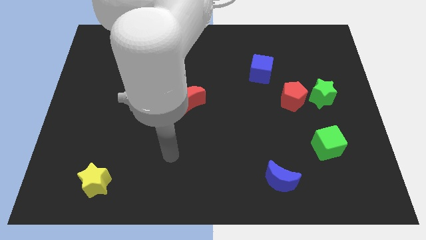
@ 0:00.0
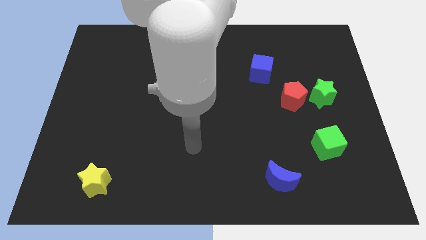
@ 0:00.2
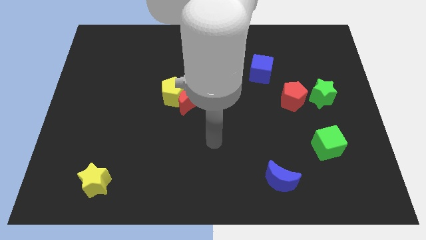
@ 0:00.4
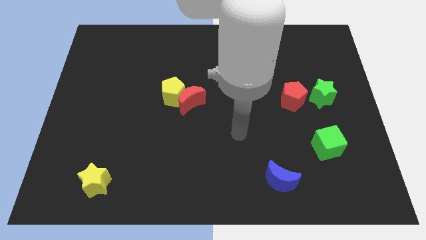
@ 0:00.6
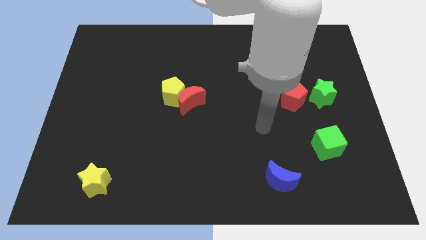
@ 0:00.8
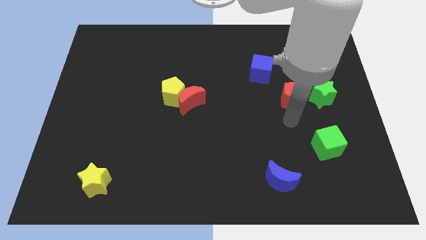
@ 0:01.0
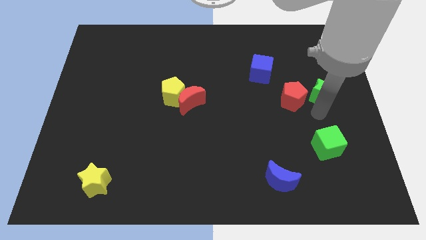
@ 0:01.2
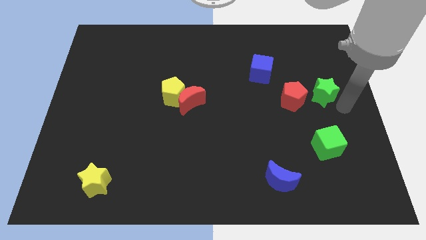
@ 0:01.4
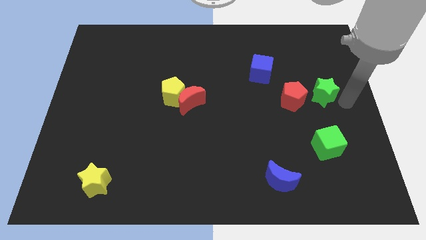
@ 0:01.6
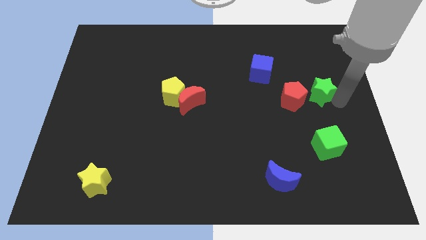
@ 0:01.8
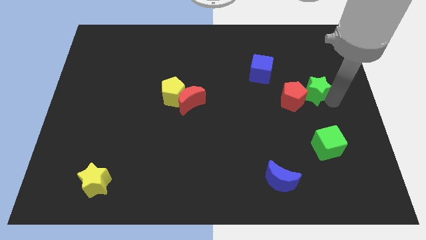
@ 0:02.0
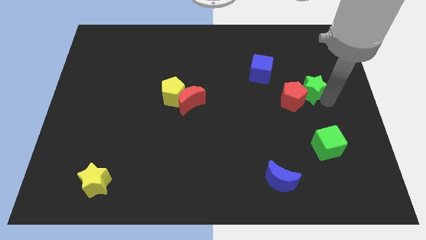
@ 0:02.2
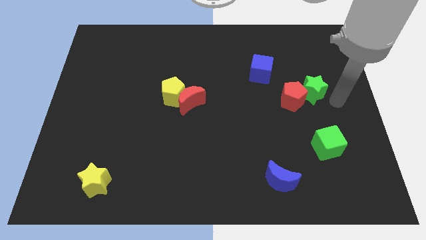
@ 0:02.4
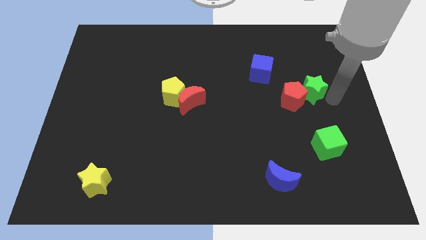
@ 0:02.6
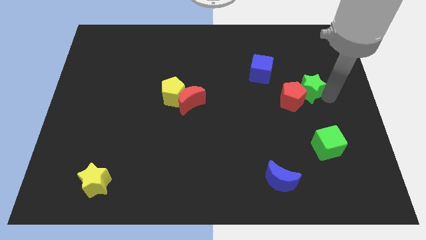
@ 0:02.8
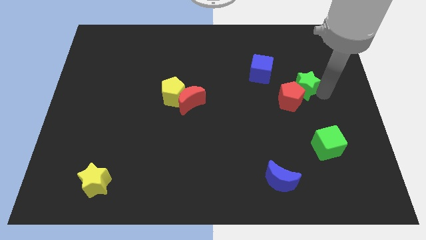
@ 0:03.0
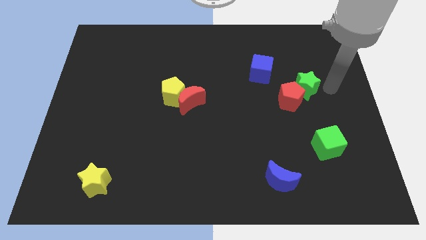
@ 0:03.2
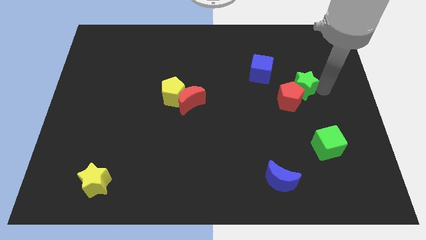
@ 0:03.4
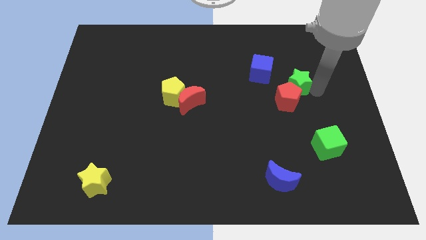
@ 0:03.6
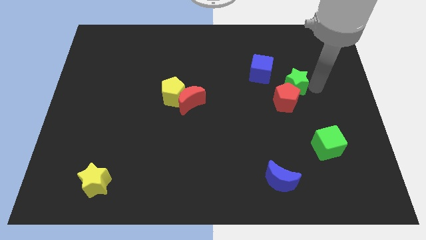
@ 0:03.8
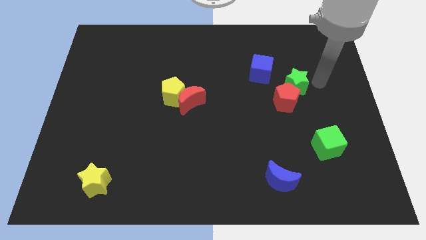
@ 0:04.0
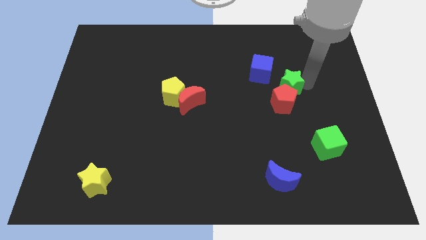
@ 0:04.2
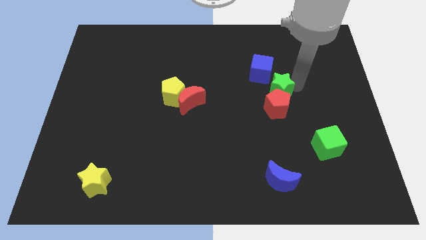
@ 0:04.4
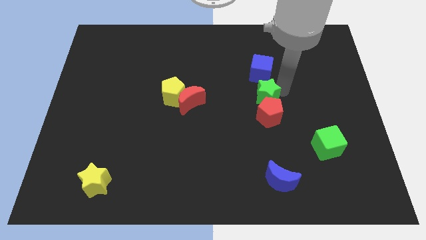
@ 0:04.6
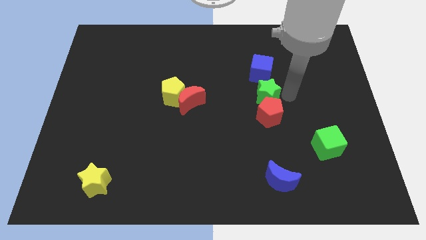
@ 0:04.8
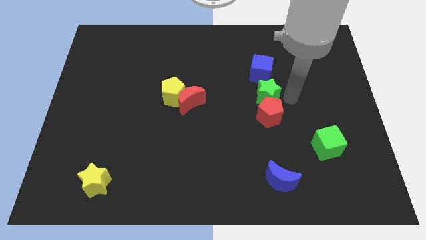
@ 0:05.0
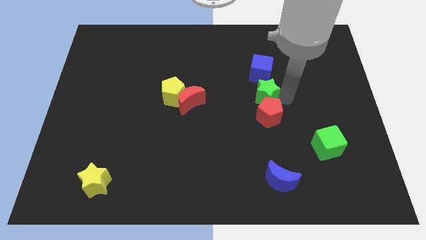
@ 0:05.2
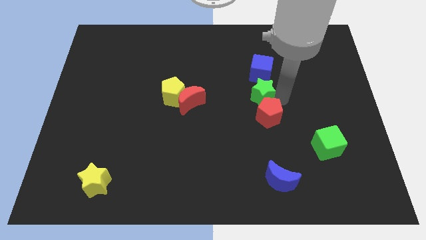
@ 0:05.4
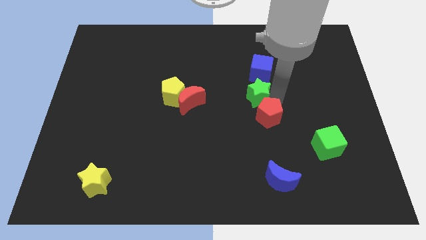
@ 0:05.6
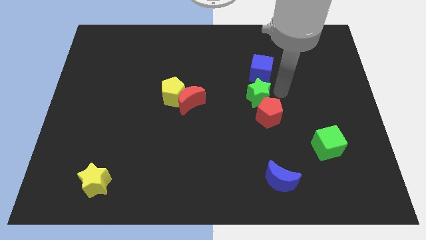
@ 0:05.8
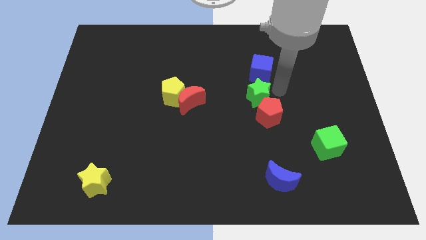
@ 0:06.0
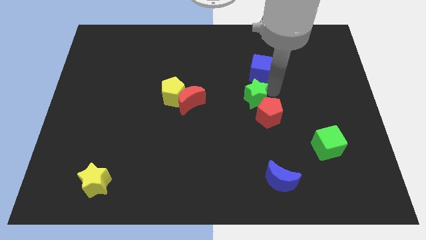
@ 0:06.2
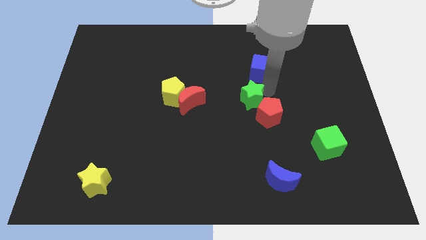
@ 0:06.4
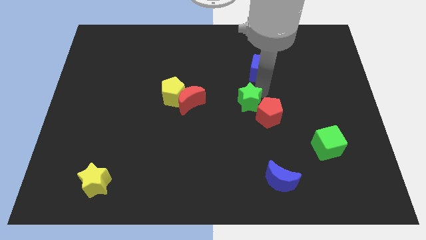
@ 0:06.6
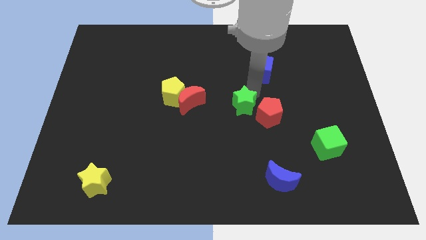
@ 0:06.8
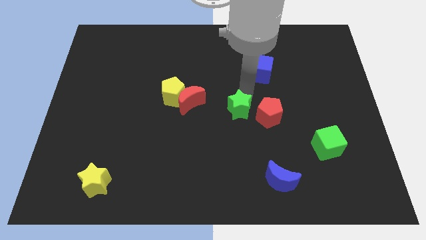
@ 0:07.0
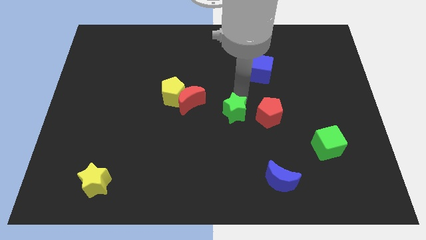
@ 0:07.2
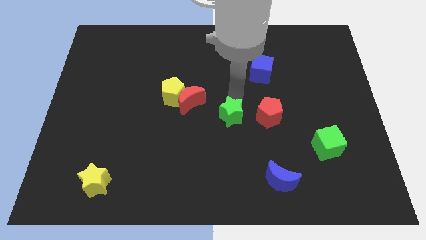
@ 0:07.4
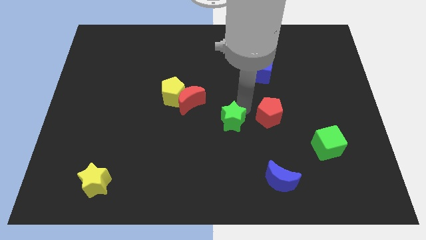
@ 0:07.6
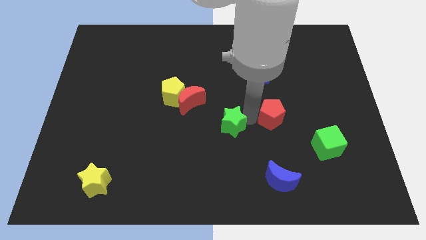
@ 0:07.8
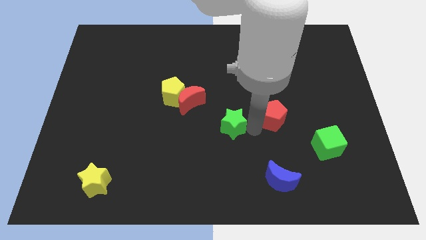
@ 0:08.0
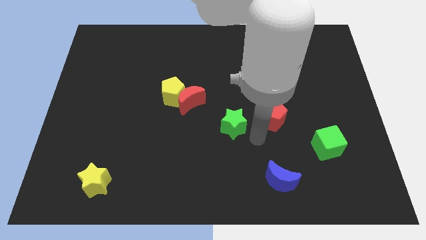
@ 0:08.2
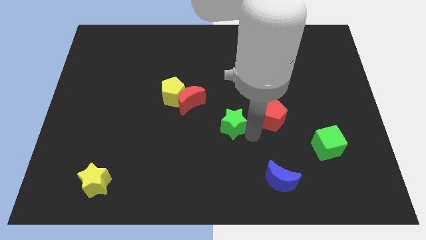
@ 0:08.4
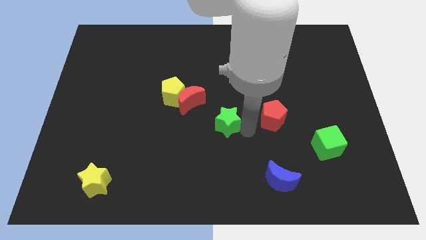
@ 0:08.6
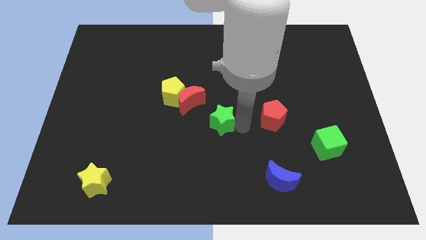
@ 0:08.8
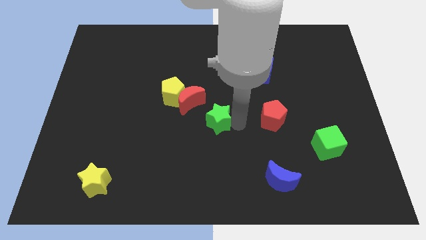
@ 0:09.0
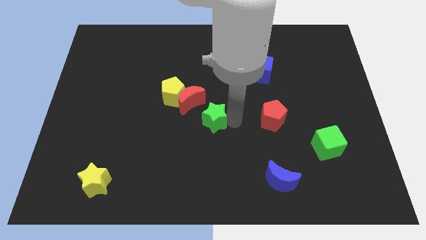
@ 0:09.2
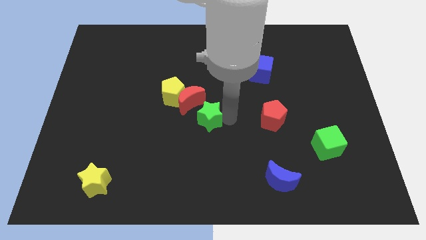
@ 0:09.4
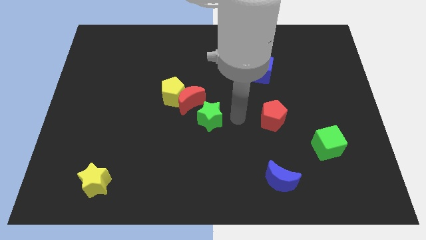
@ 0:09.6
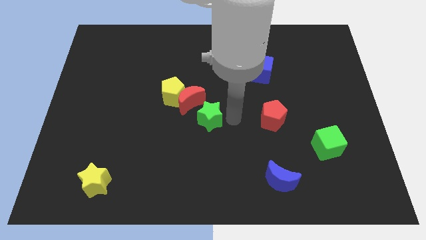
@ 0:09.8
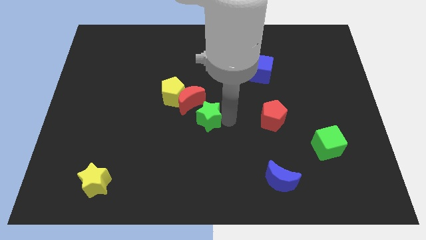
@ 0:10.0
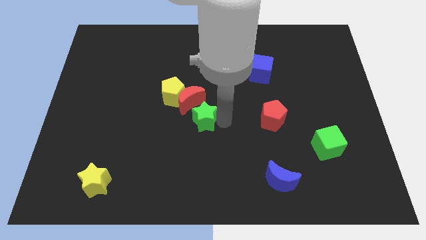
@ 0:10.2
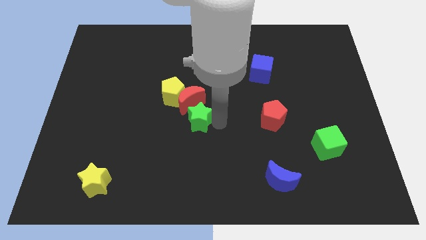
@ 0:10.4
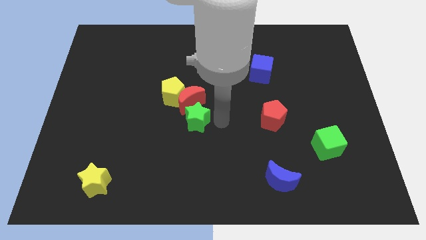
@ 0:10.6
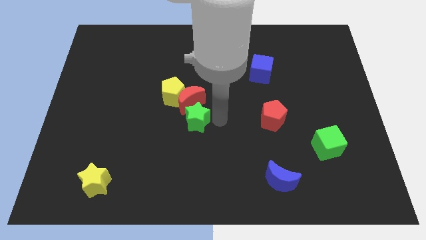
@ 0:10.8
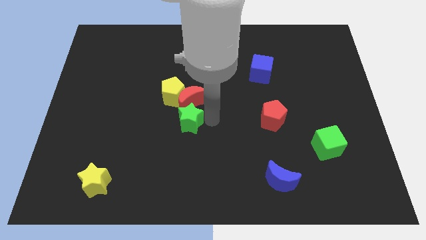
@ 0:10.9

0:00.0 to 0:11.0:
move the green star to the bottom left side of the red moon

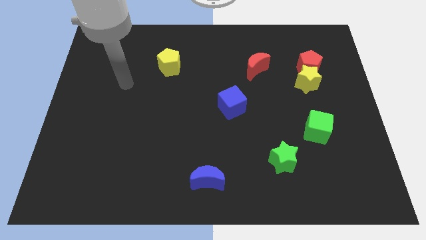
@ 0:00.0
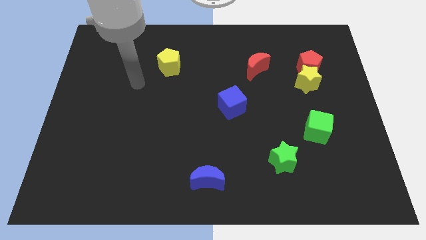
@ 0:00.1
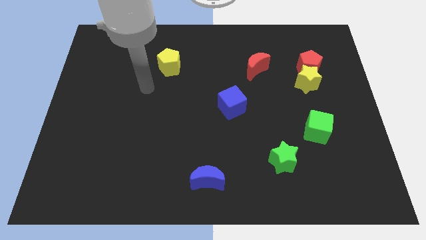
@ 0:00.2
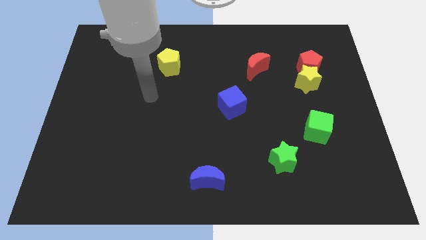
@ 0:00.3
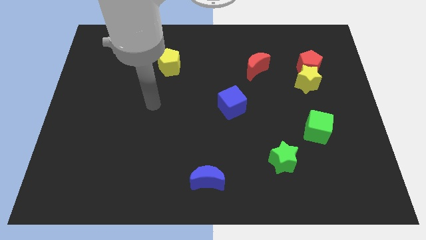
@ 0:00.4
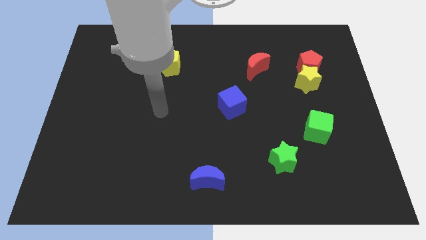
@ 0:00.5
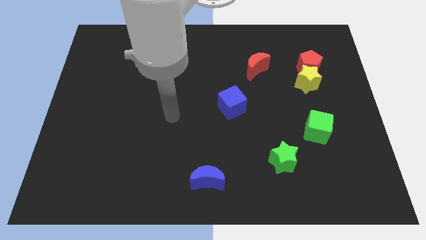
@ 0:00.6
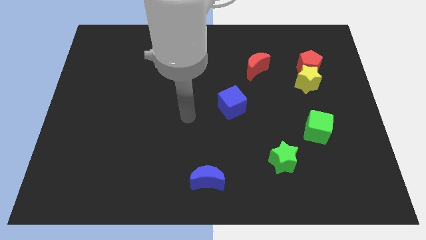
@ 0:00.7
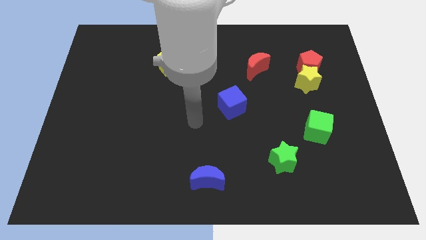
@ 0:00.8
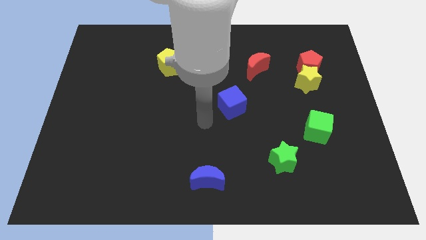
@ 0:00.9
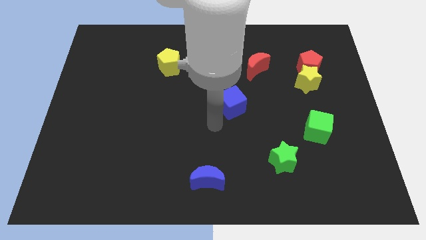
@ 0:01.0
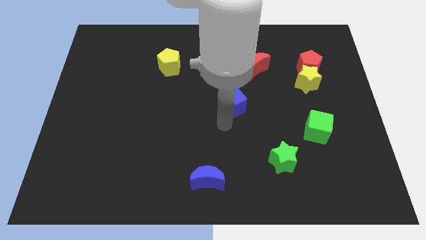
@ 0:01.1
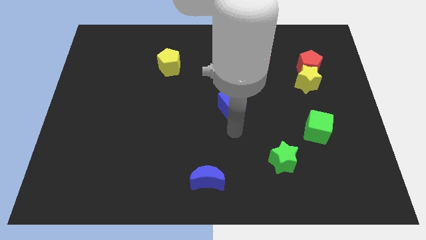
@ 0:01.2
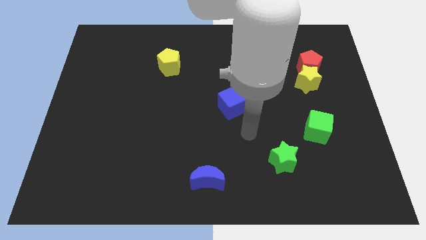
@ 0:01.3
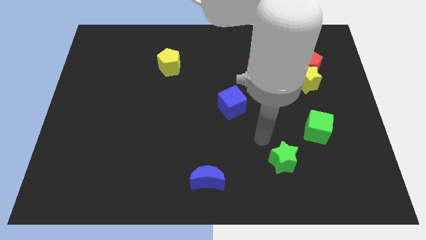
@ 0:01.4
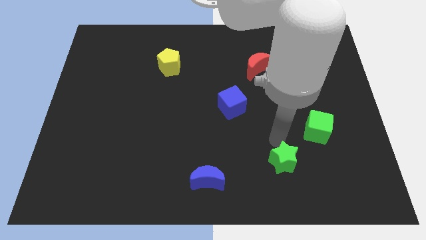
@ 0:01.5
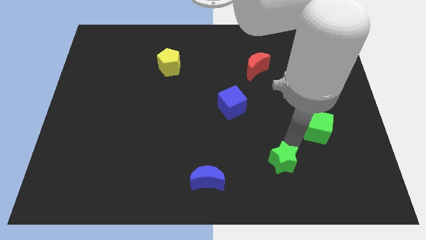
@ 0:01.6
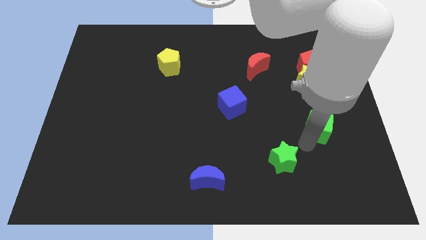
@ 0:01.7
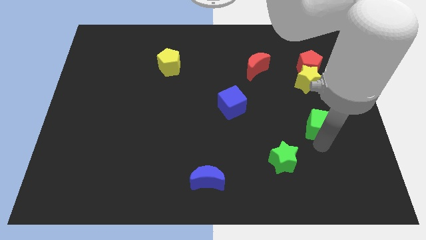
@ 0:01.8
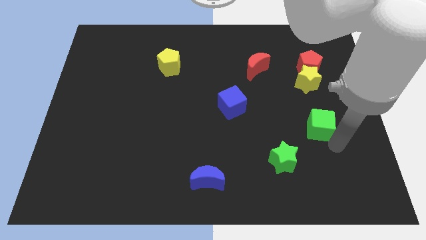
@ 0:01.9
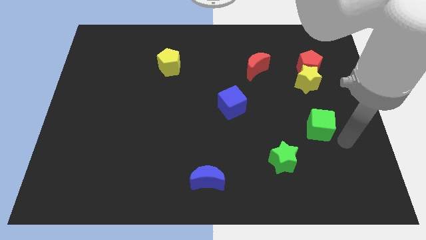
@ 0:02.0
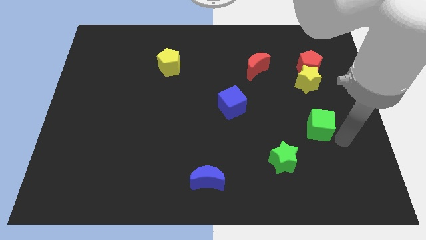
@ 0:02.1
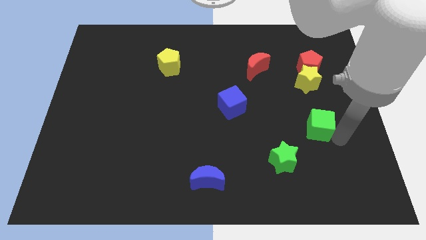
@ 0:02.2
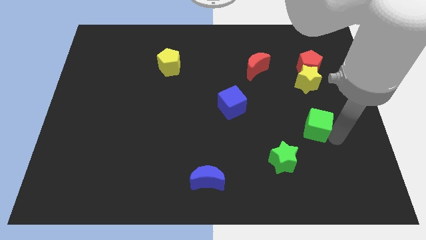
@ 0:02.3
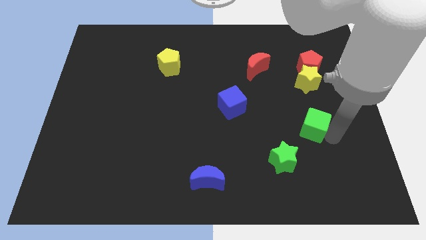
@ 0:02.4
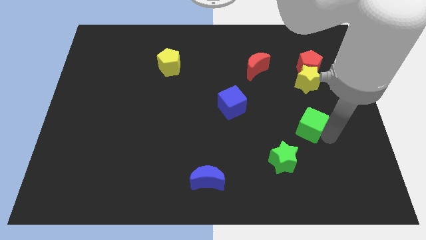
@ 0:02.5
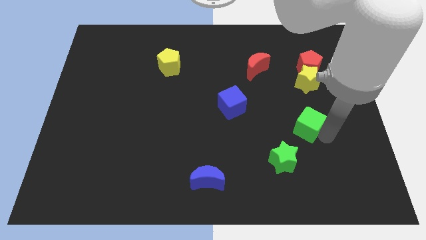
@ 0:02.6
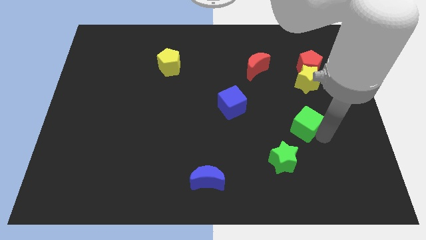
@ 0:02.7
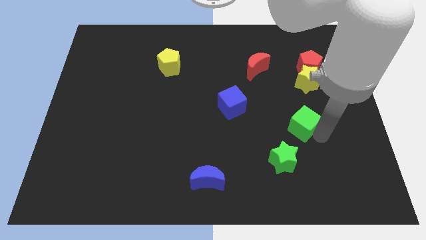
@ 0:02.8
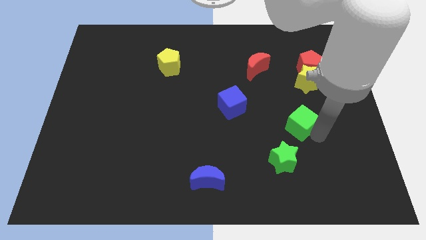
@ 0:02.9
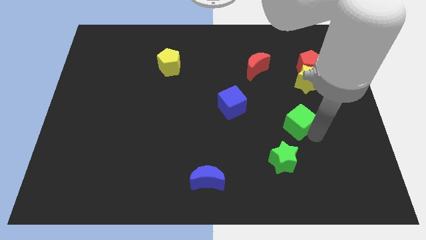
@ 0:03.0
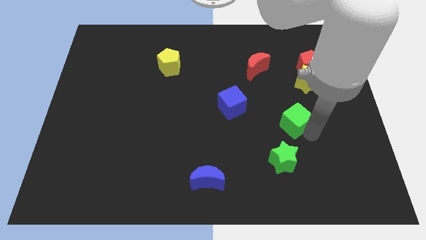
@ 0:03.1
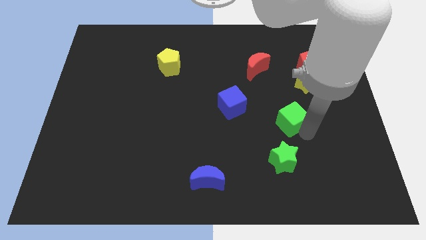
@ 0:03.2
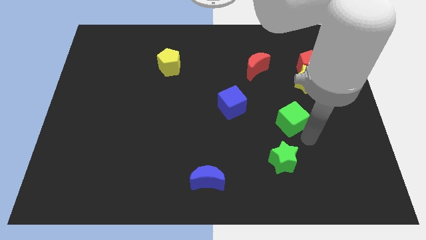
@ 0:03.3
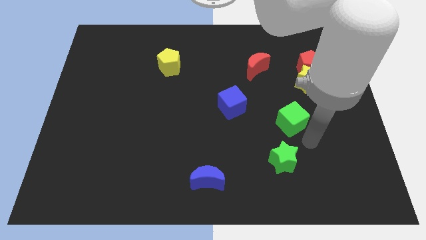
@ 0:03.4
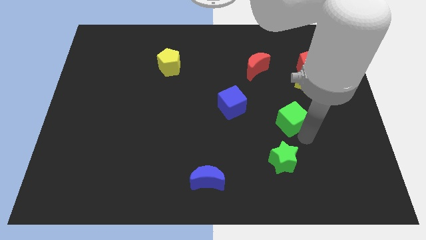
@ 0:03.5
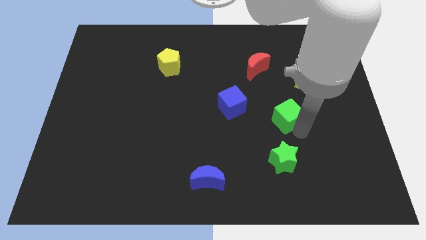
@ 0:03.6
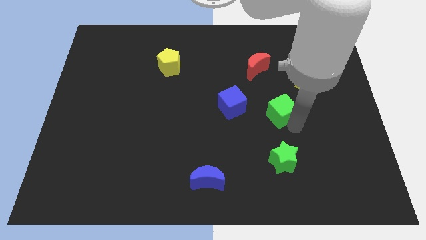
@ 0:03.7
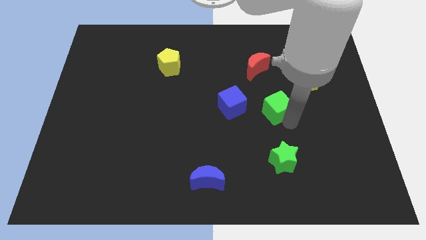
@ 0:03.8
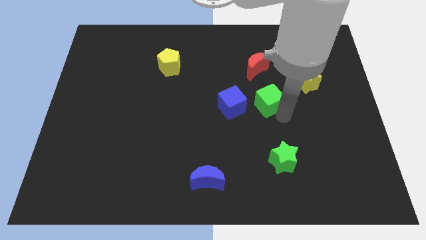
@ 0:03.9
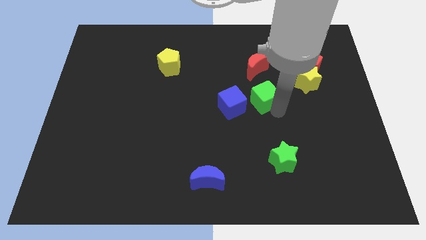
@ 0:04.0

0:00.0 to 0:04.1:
put the green cube to the top right of the blue cube
